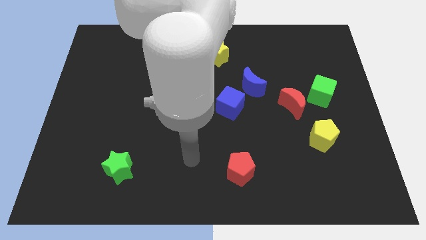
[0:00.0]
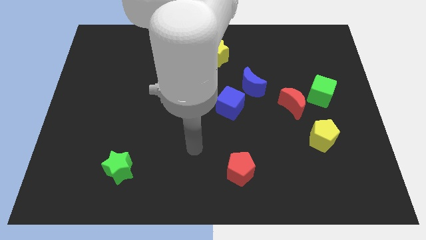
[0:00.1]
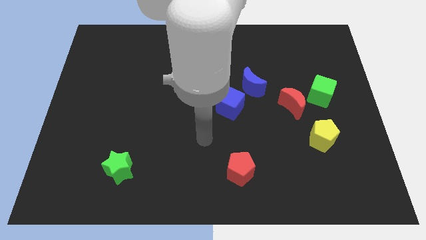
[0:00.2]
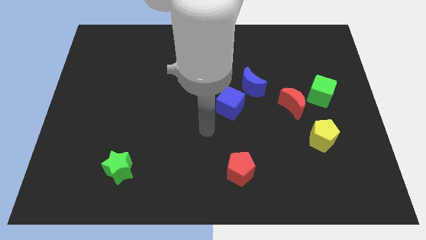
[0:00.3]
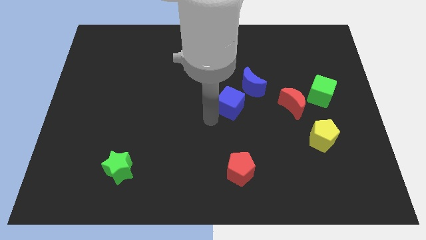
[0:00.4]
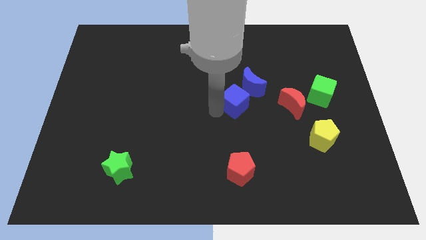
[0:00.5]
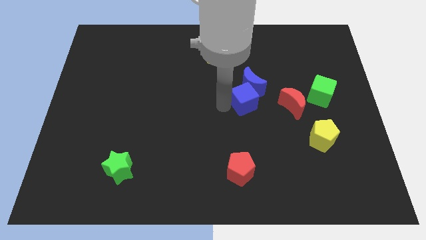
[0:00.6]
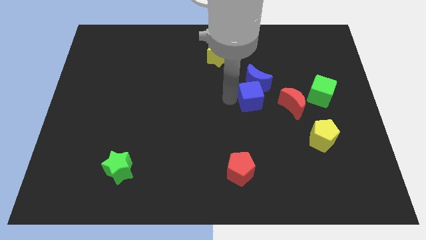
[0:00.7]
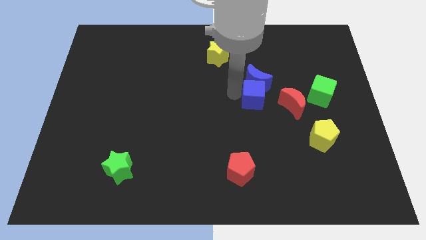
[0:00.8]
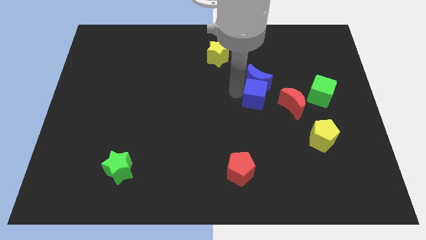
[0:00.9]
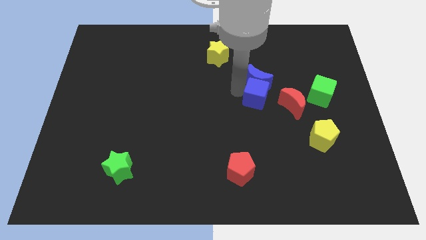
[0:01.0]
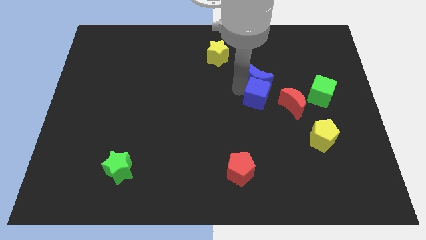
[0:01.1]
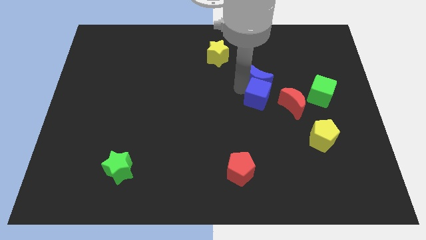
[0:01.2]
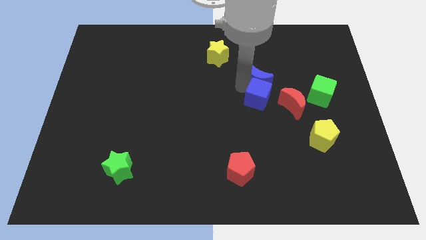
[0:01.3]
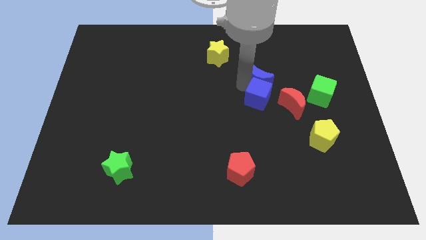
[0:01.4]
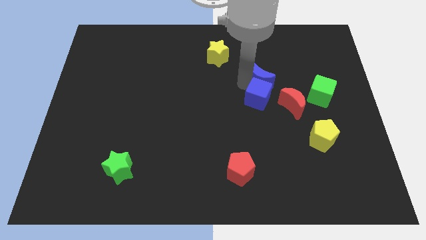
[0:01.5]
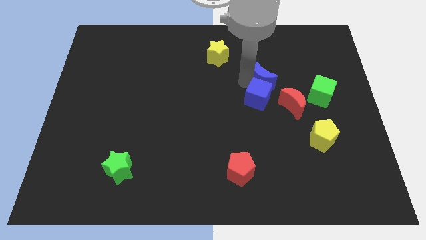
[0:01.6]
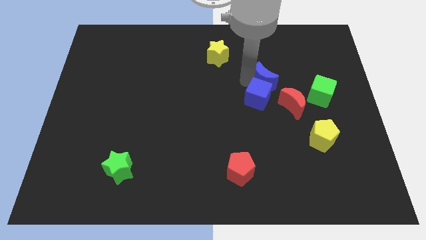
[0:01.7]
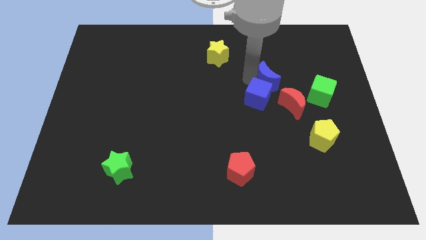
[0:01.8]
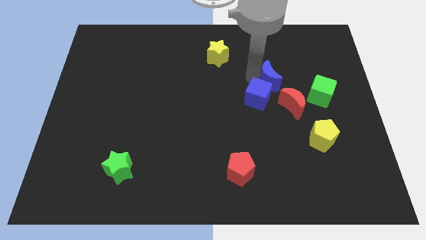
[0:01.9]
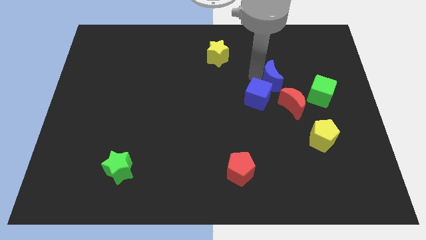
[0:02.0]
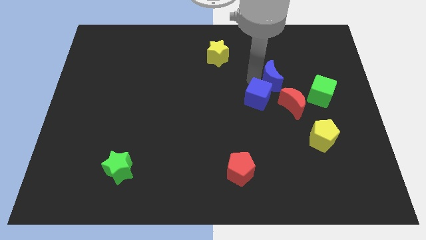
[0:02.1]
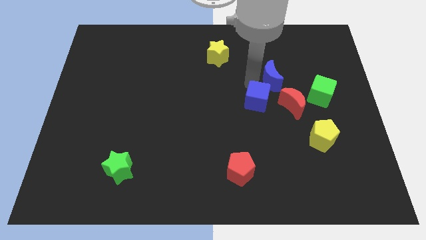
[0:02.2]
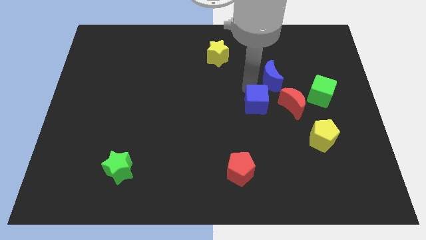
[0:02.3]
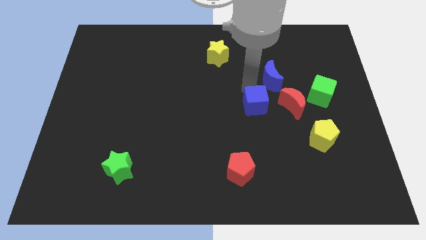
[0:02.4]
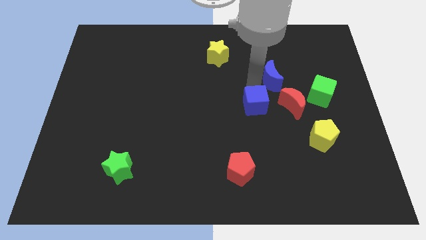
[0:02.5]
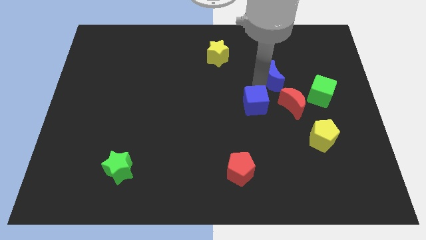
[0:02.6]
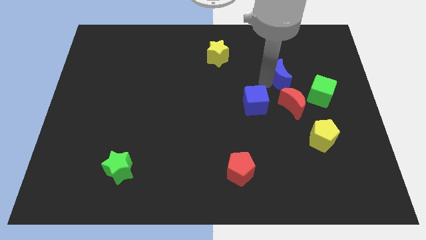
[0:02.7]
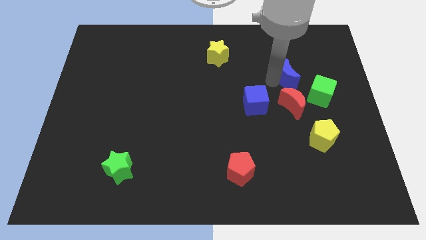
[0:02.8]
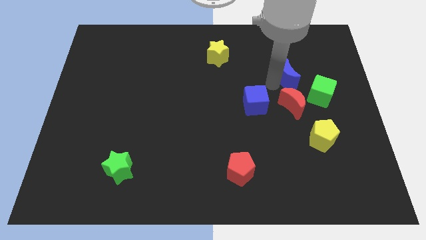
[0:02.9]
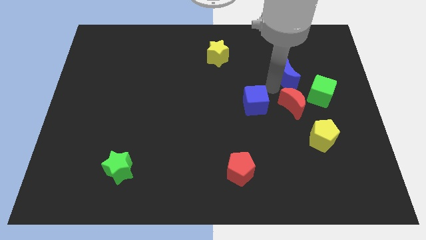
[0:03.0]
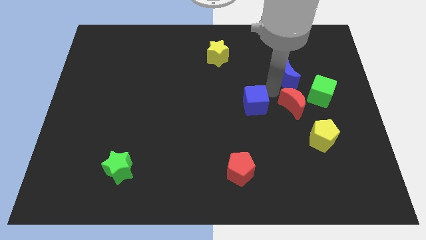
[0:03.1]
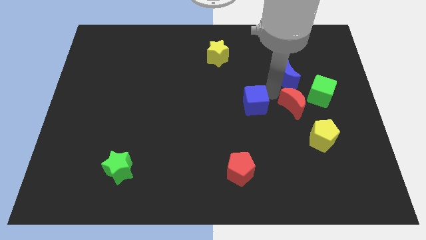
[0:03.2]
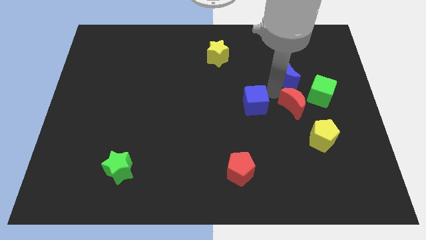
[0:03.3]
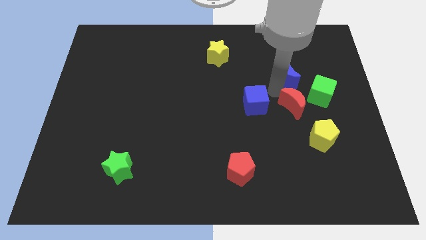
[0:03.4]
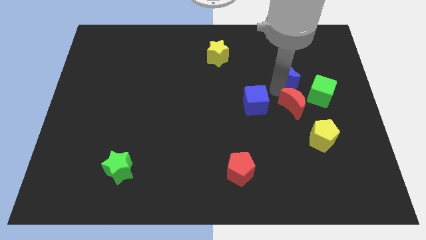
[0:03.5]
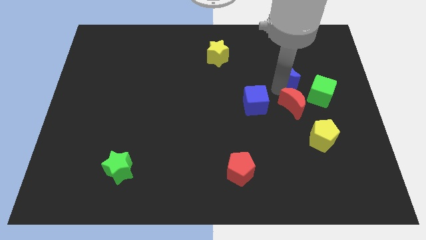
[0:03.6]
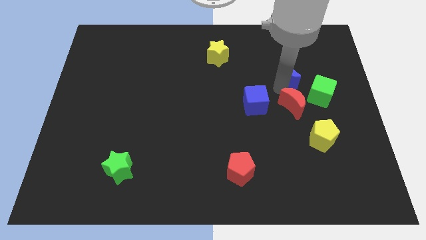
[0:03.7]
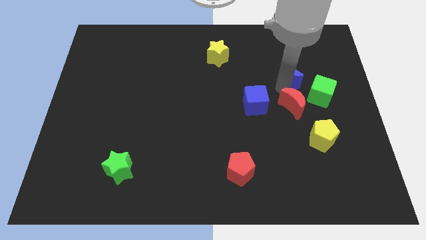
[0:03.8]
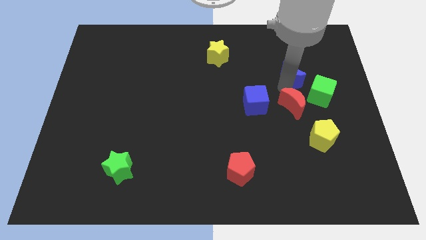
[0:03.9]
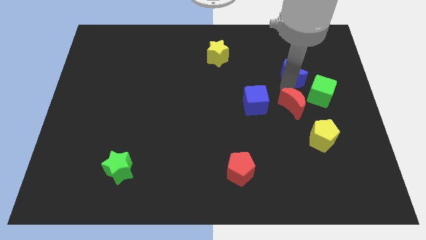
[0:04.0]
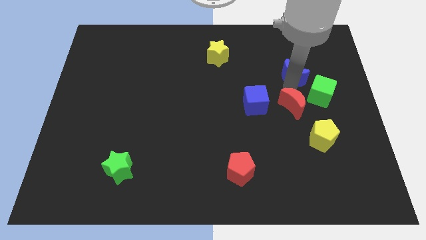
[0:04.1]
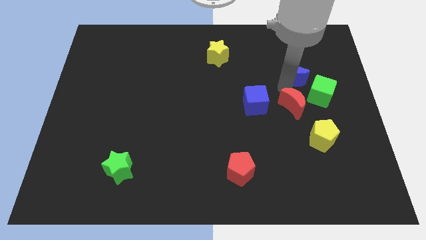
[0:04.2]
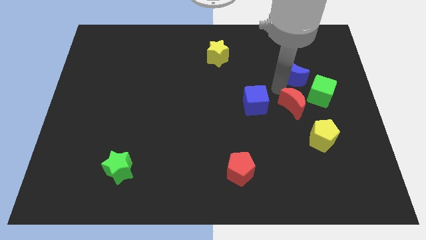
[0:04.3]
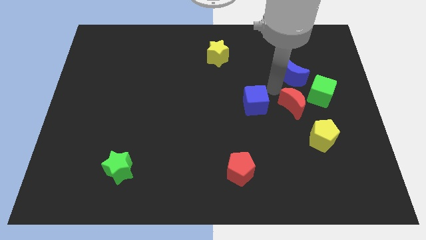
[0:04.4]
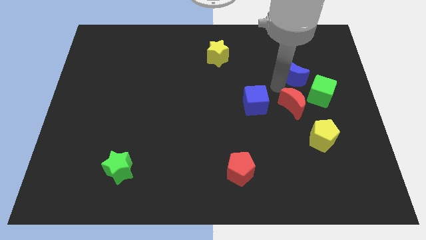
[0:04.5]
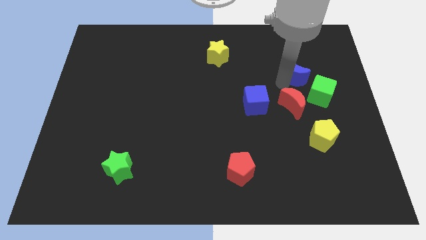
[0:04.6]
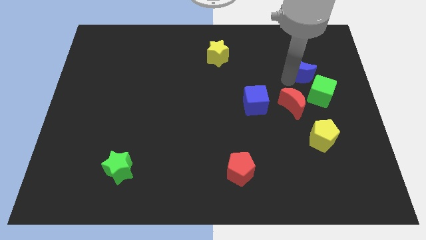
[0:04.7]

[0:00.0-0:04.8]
slide the blue moon to the top of the green cube

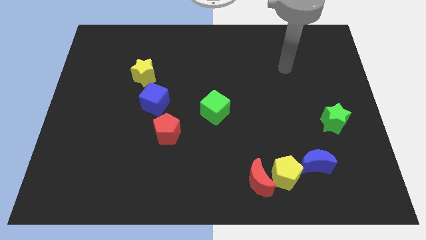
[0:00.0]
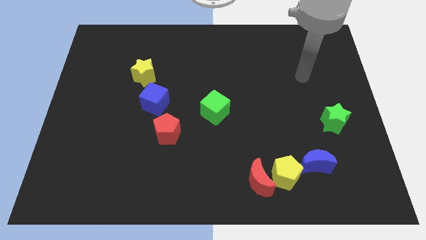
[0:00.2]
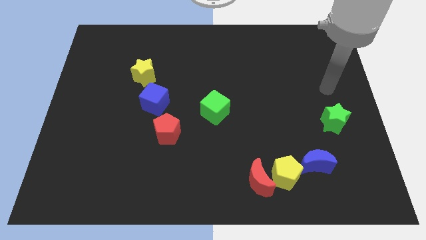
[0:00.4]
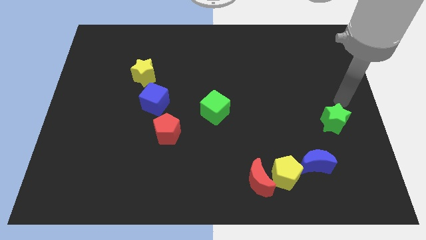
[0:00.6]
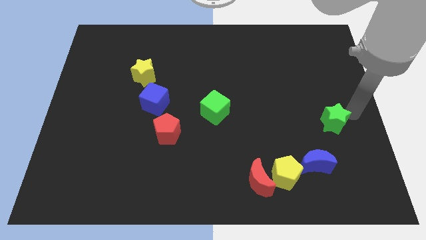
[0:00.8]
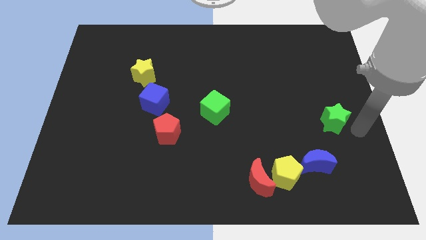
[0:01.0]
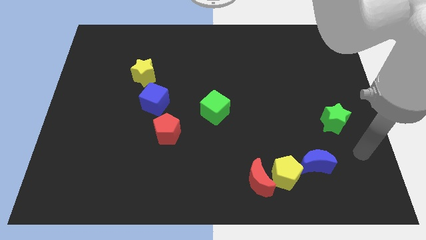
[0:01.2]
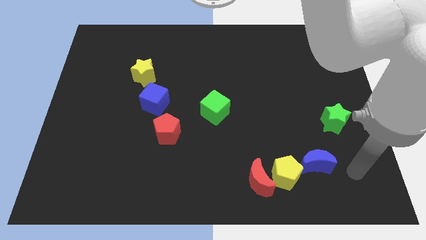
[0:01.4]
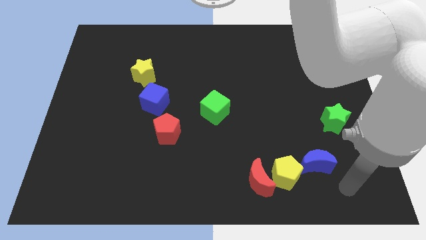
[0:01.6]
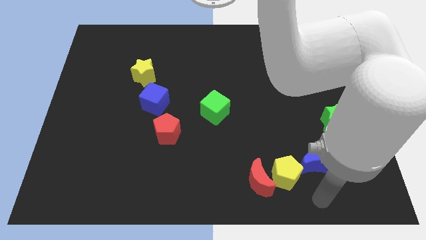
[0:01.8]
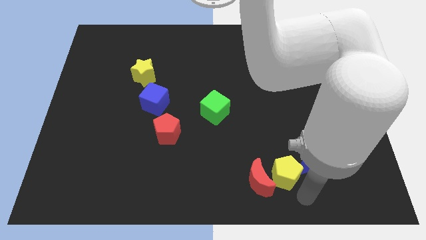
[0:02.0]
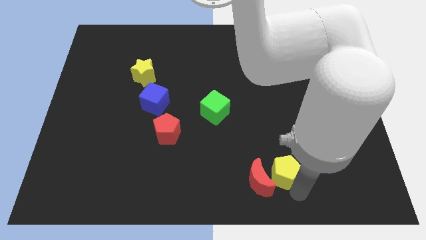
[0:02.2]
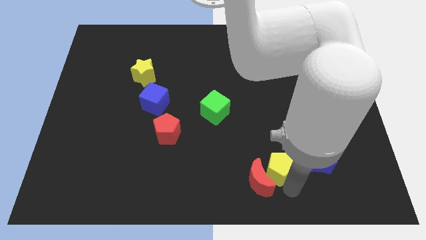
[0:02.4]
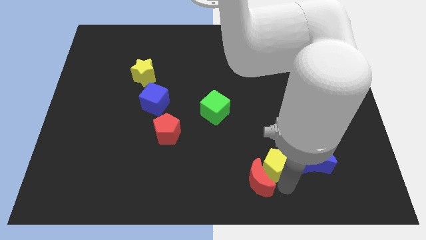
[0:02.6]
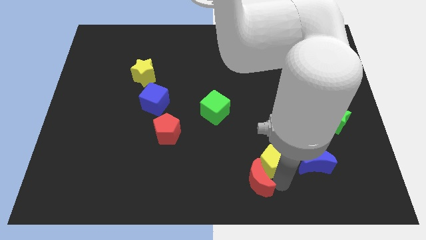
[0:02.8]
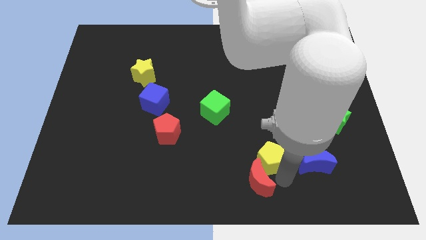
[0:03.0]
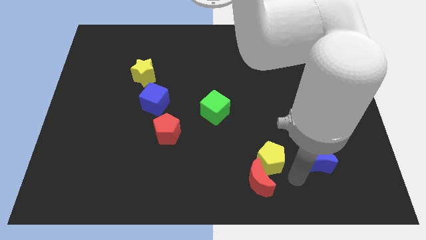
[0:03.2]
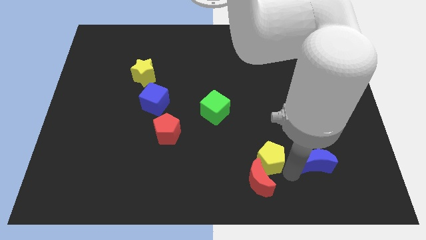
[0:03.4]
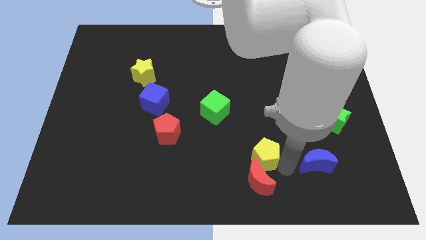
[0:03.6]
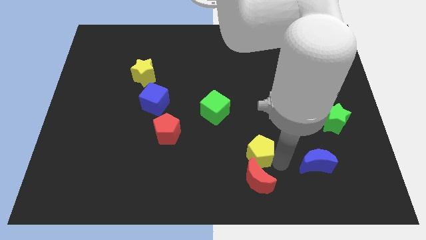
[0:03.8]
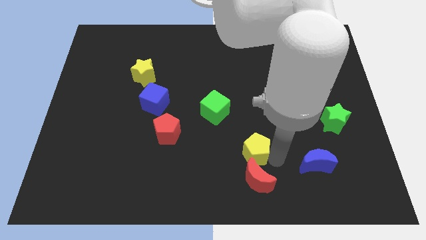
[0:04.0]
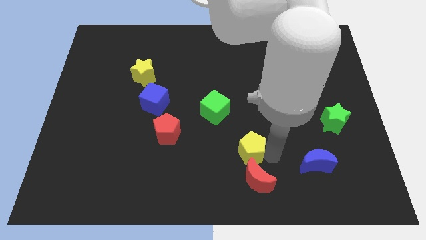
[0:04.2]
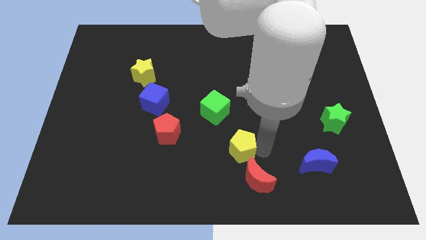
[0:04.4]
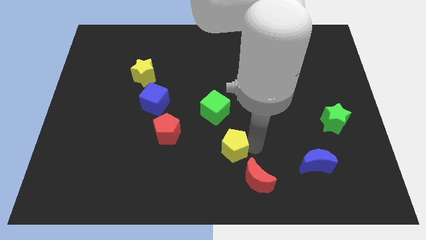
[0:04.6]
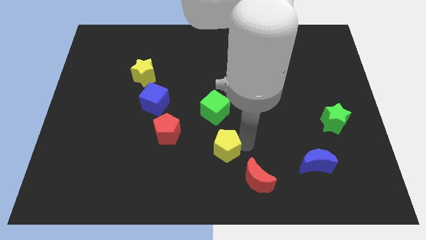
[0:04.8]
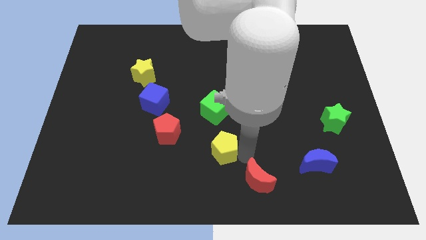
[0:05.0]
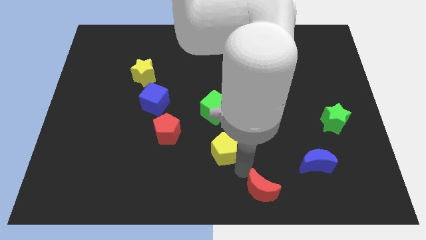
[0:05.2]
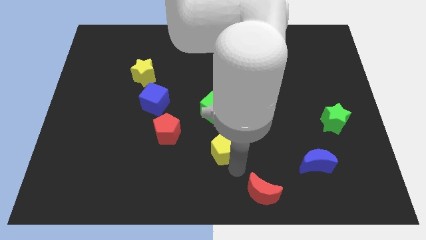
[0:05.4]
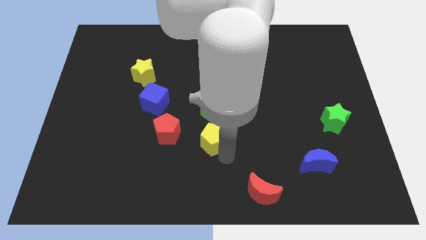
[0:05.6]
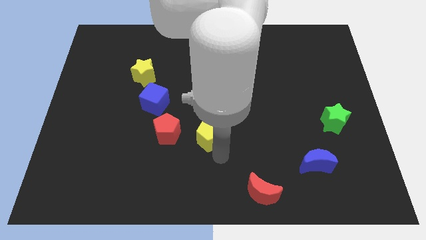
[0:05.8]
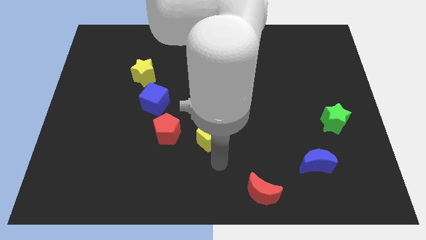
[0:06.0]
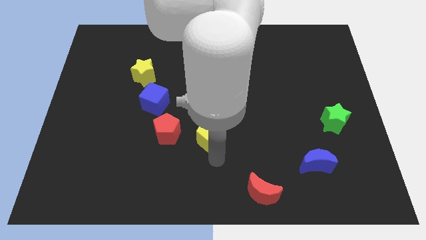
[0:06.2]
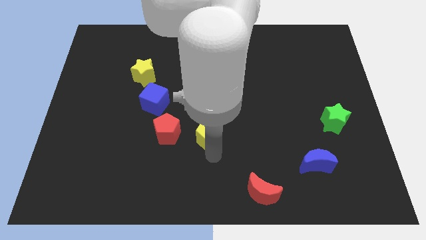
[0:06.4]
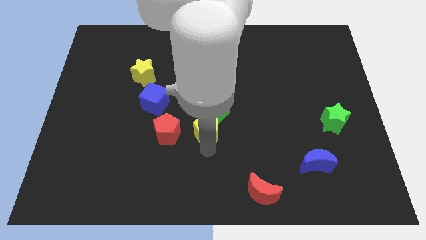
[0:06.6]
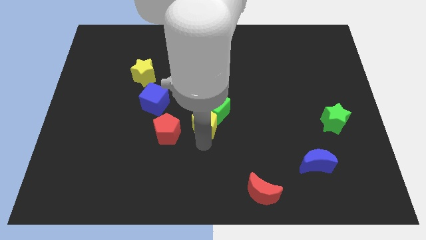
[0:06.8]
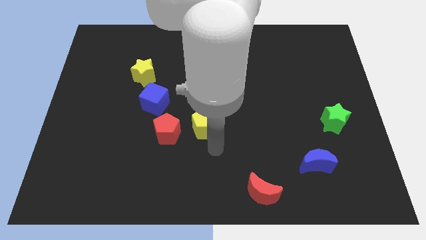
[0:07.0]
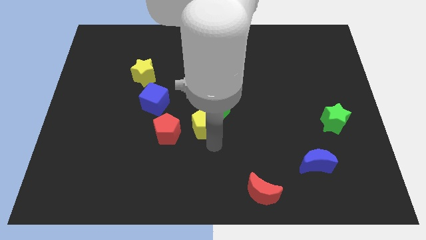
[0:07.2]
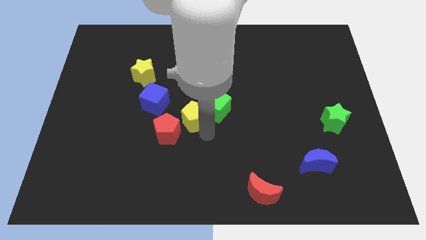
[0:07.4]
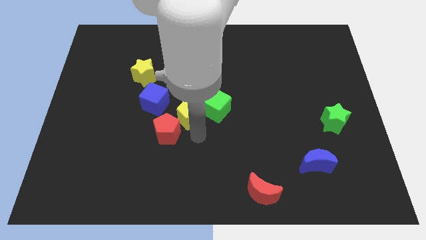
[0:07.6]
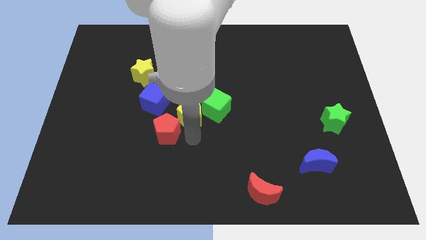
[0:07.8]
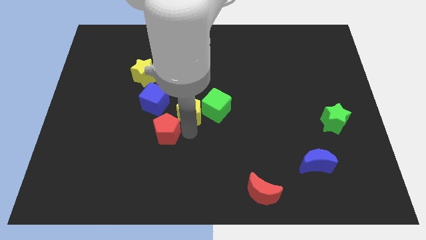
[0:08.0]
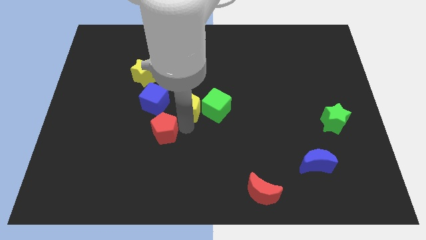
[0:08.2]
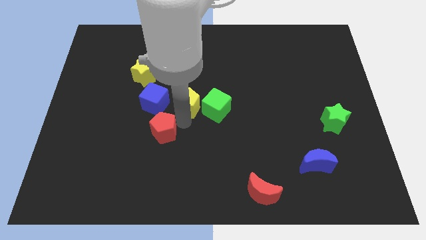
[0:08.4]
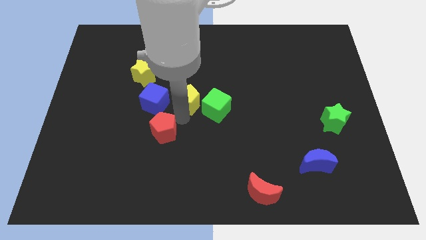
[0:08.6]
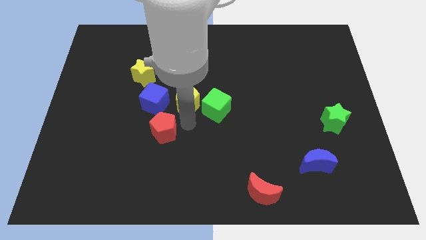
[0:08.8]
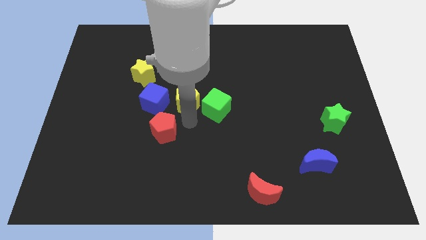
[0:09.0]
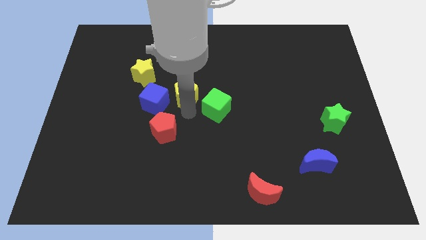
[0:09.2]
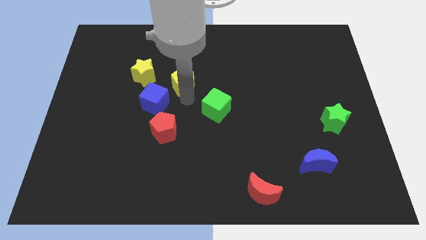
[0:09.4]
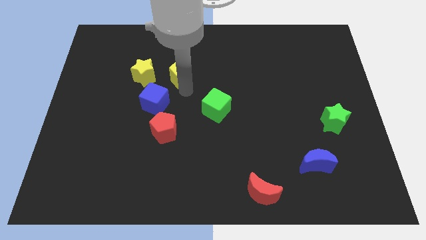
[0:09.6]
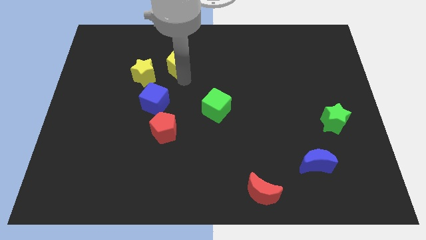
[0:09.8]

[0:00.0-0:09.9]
push the yellow pentagon diagonally up and to the right of the yellow star
